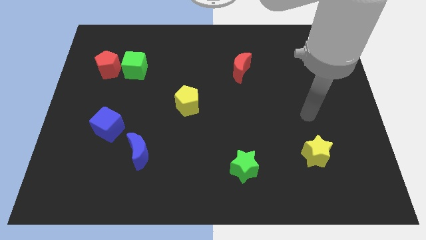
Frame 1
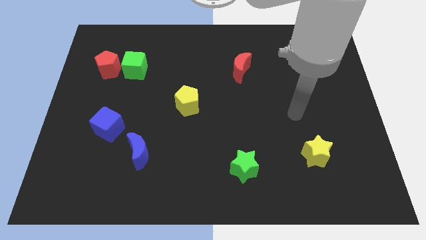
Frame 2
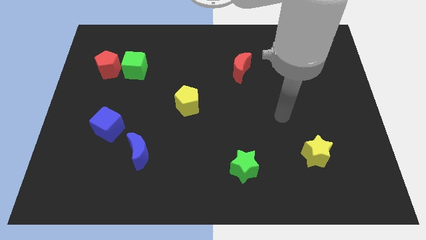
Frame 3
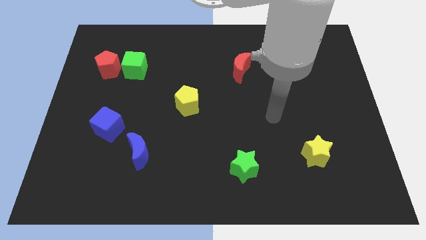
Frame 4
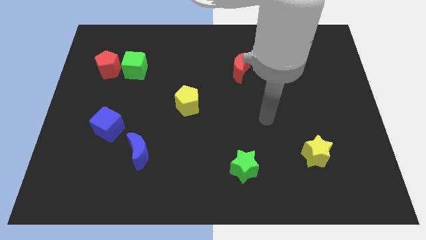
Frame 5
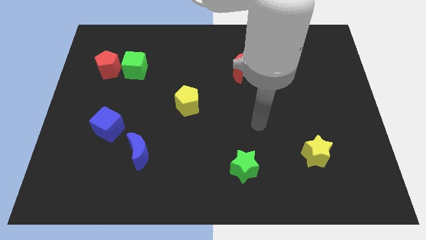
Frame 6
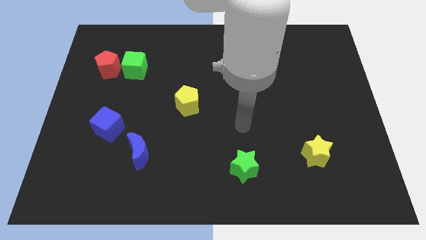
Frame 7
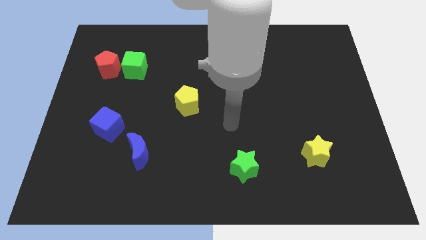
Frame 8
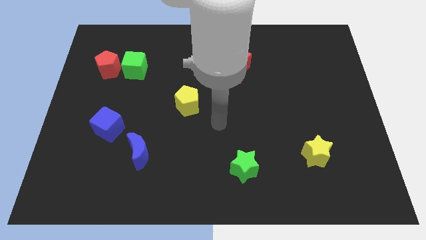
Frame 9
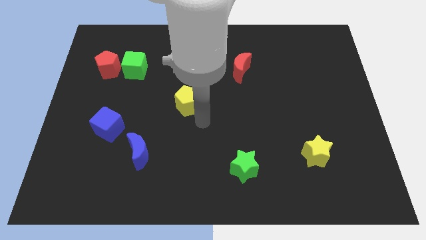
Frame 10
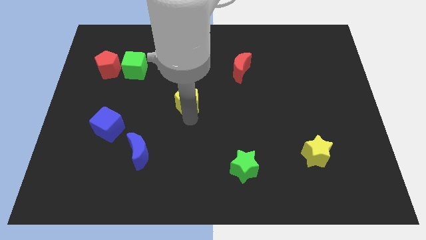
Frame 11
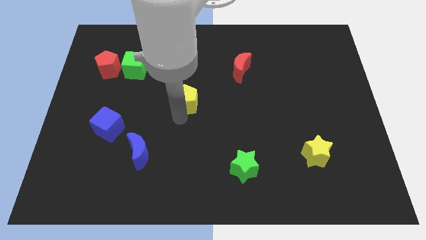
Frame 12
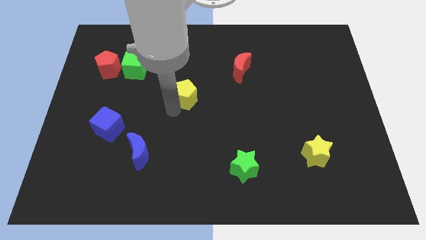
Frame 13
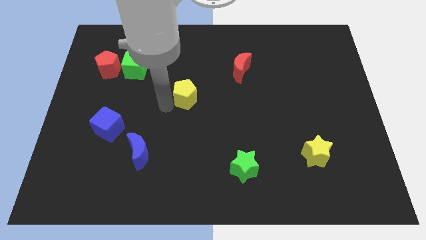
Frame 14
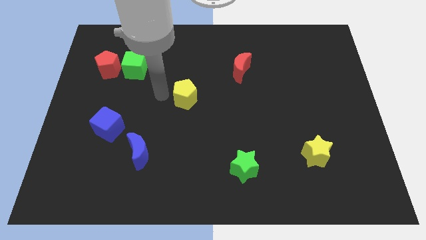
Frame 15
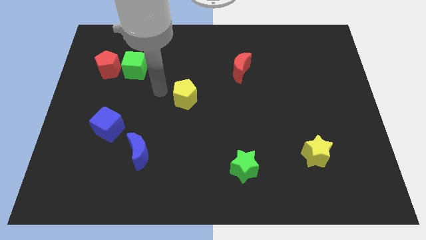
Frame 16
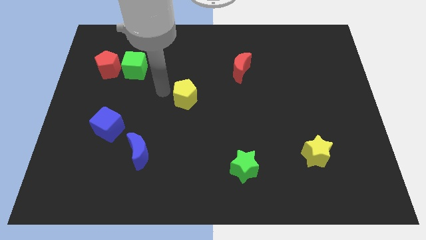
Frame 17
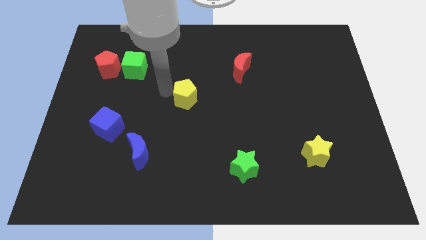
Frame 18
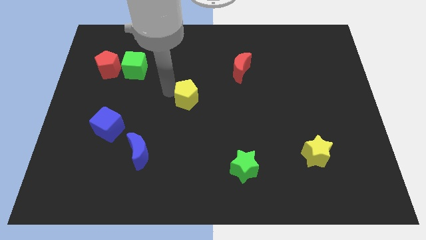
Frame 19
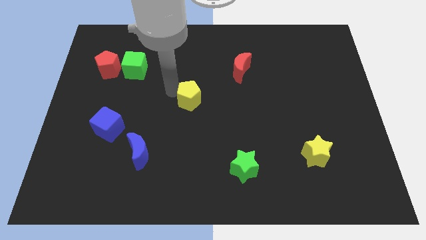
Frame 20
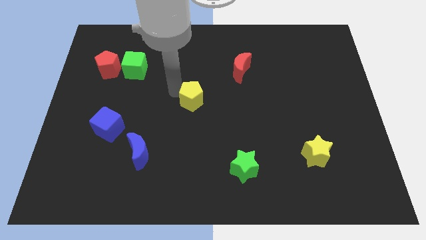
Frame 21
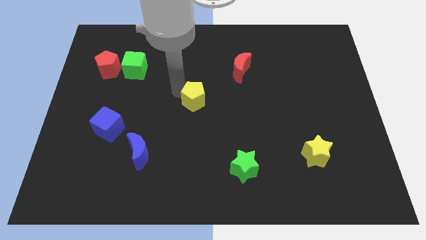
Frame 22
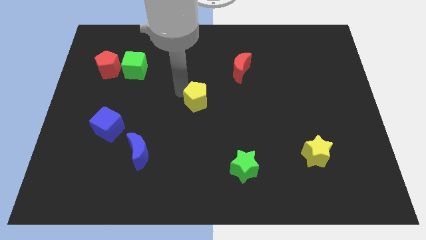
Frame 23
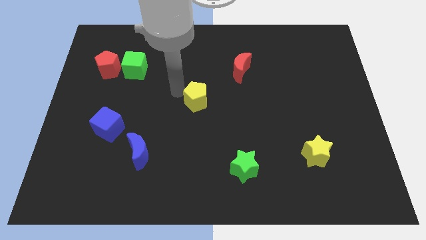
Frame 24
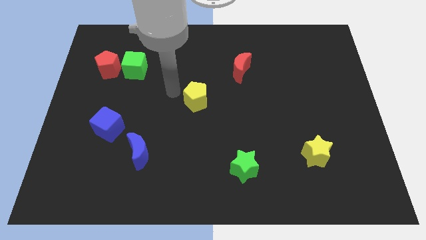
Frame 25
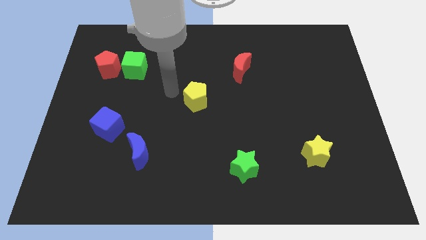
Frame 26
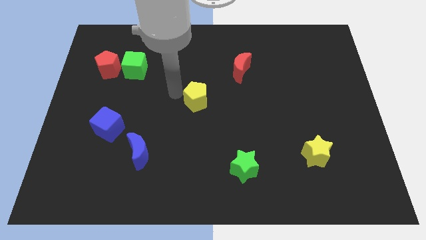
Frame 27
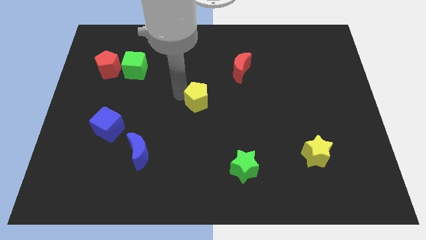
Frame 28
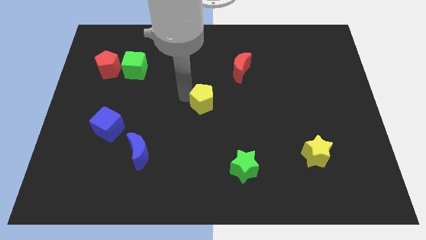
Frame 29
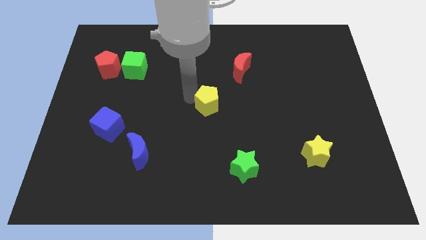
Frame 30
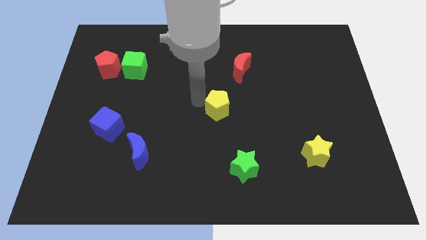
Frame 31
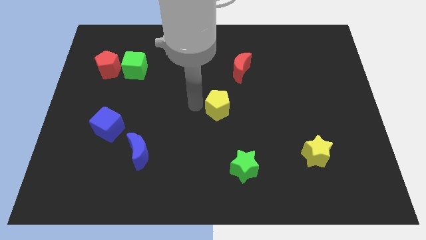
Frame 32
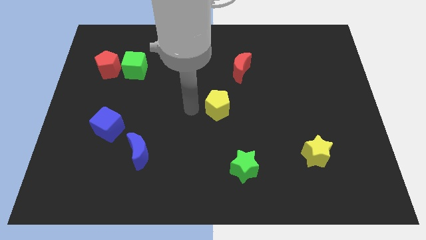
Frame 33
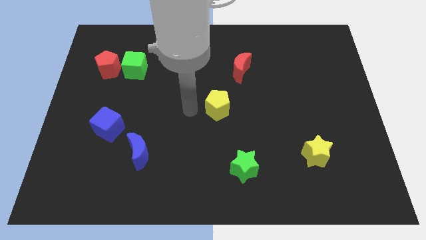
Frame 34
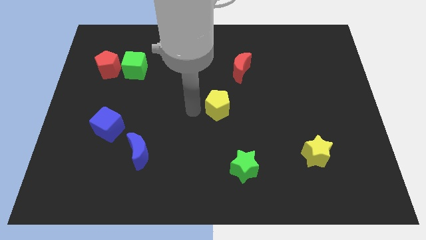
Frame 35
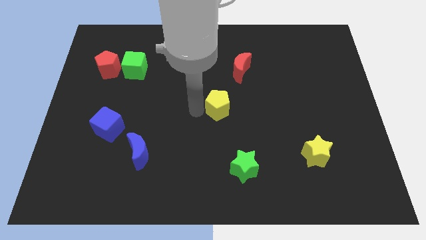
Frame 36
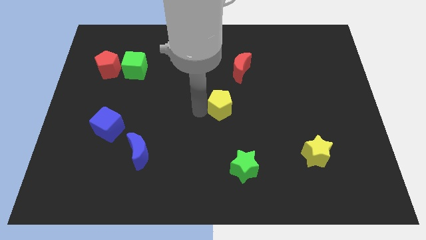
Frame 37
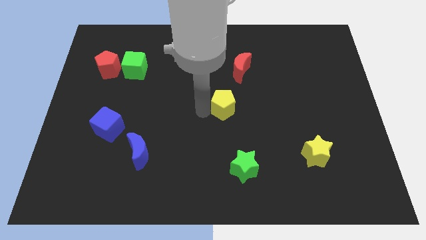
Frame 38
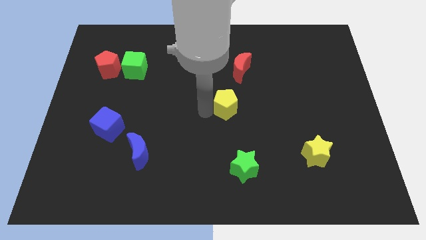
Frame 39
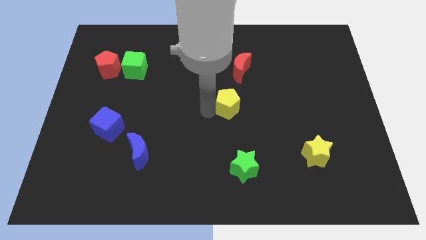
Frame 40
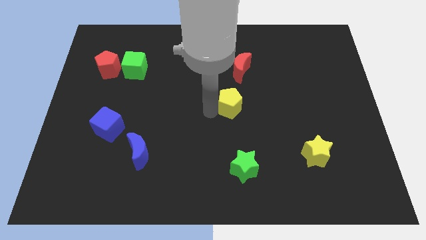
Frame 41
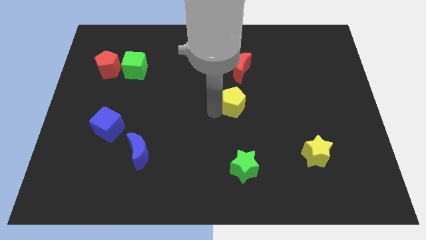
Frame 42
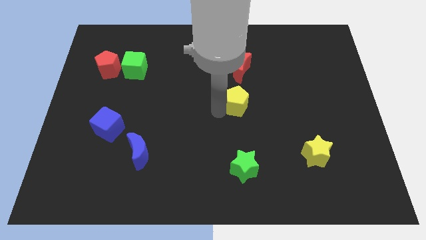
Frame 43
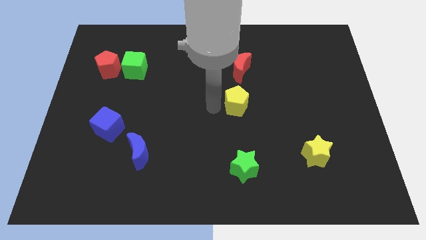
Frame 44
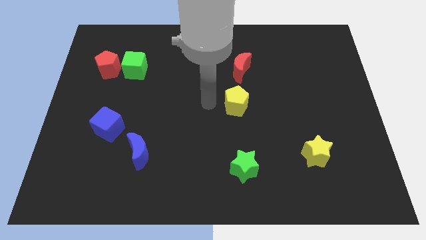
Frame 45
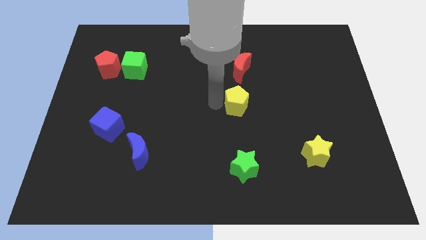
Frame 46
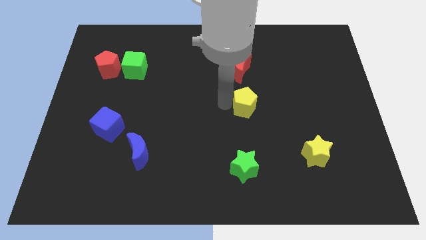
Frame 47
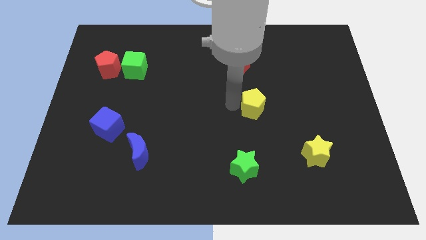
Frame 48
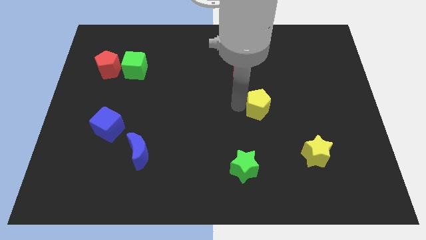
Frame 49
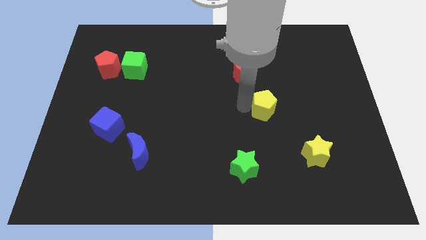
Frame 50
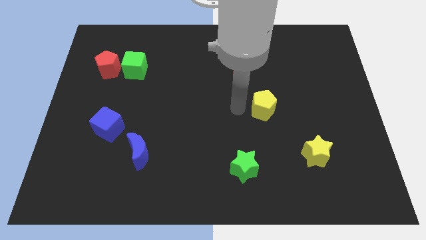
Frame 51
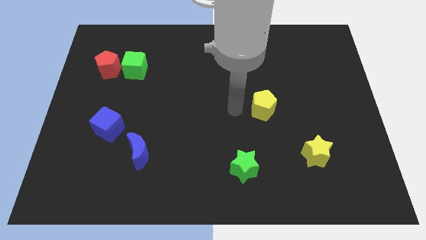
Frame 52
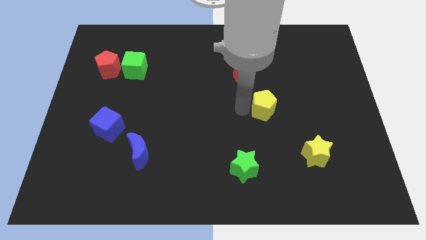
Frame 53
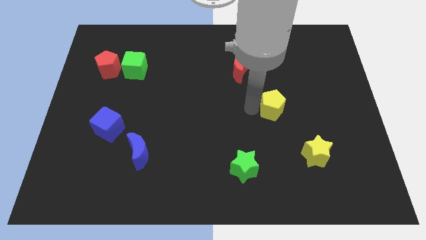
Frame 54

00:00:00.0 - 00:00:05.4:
move the yellow pentagon to the right

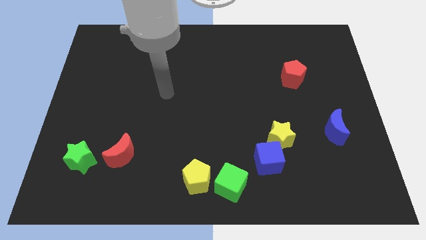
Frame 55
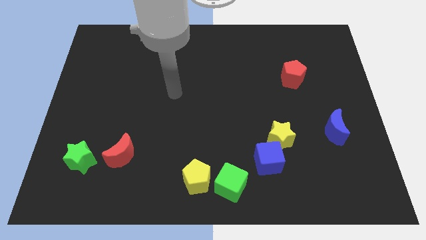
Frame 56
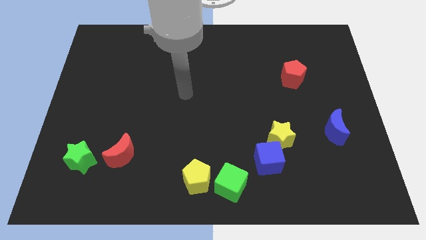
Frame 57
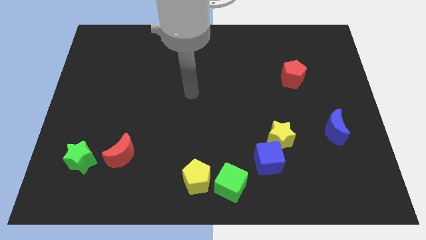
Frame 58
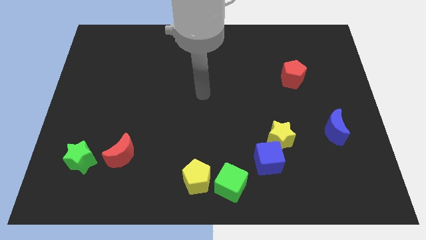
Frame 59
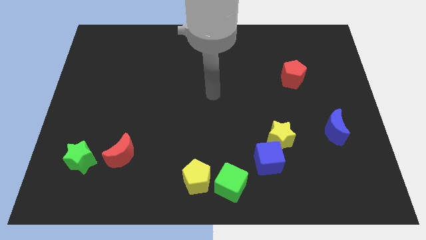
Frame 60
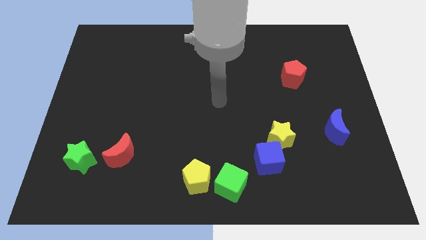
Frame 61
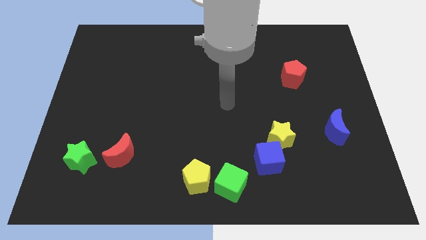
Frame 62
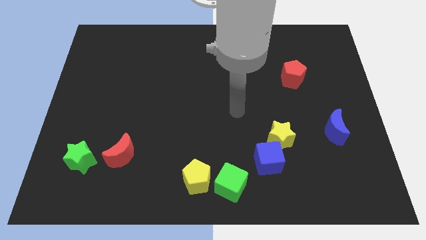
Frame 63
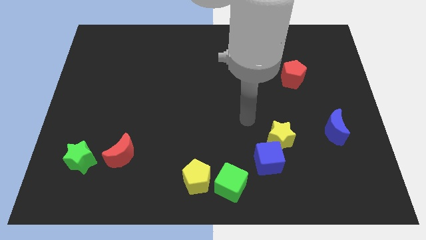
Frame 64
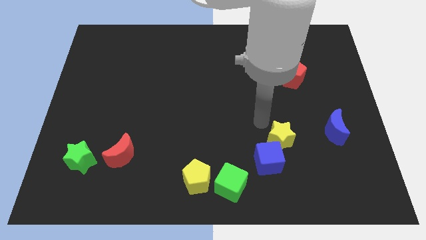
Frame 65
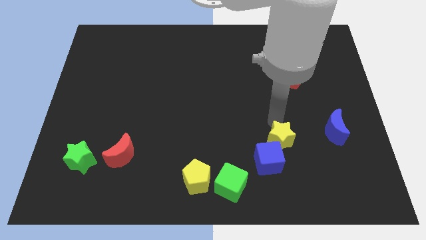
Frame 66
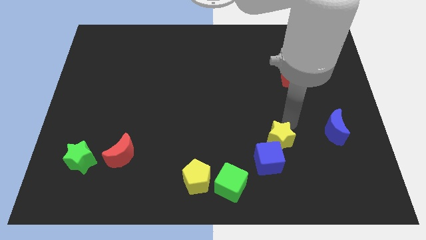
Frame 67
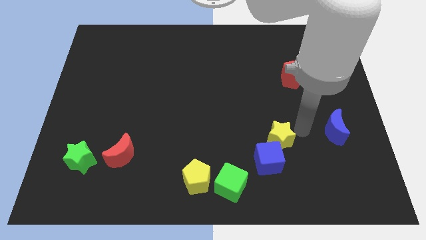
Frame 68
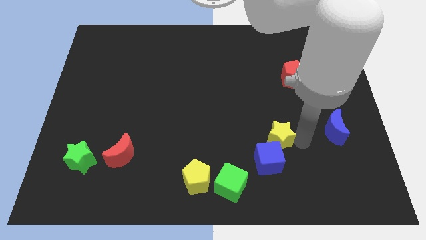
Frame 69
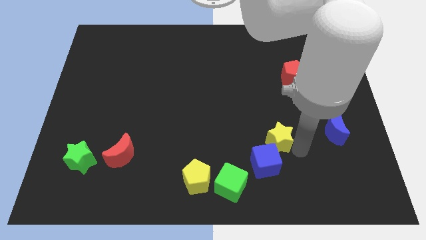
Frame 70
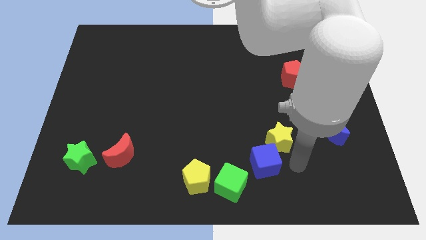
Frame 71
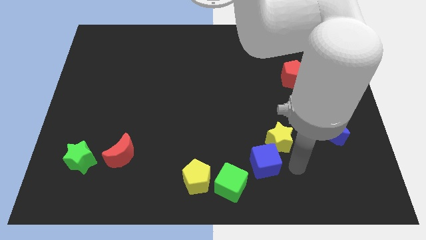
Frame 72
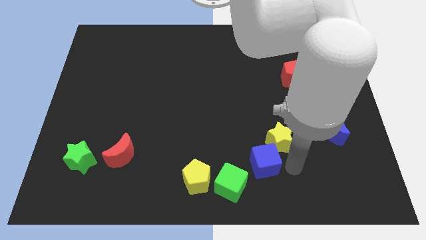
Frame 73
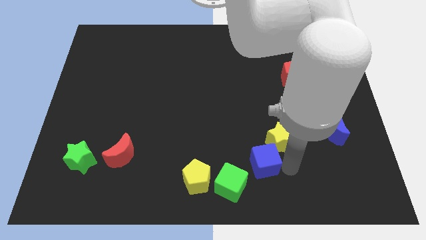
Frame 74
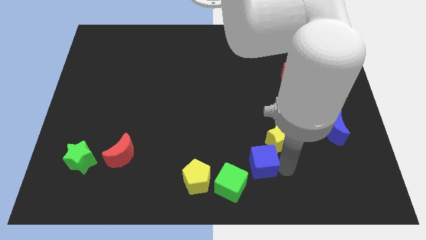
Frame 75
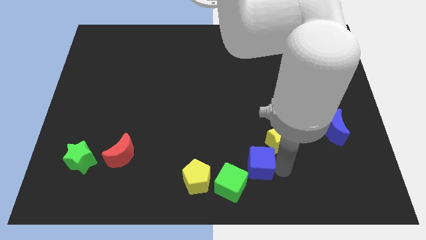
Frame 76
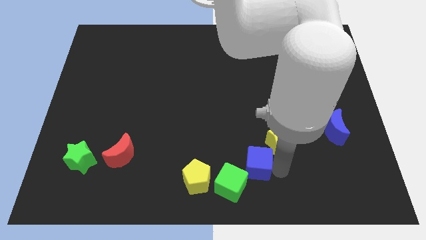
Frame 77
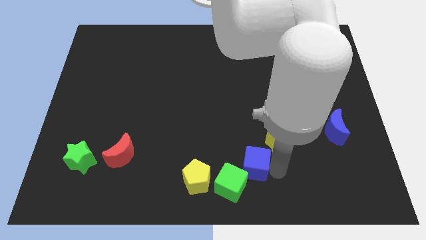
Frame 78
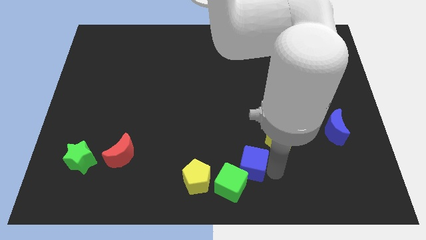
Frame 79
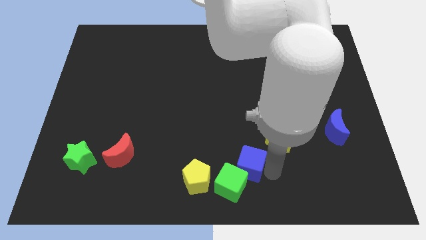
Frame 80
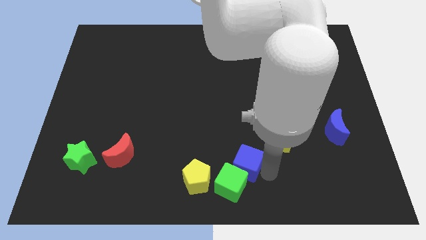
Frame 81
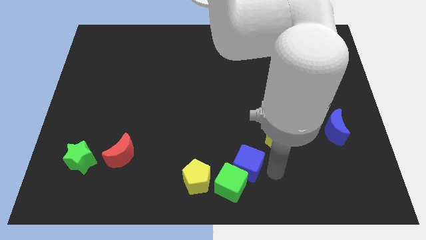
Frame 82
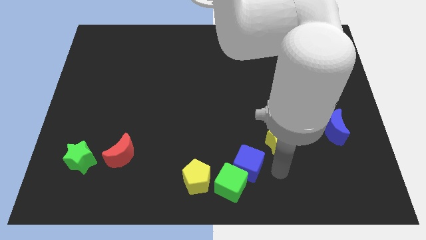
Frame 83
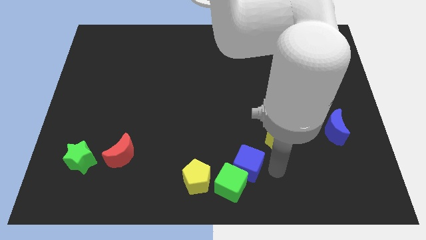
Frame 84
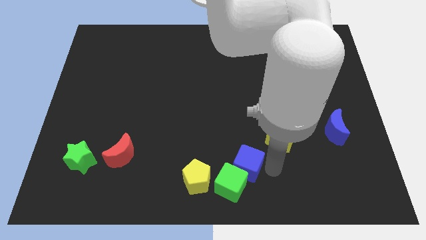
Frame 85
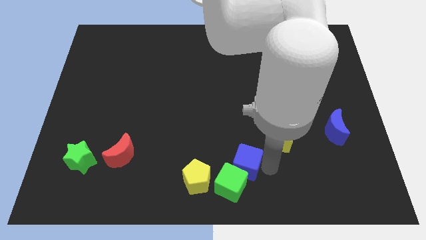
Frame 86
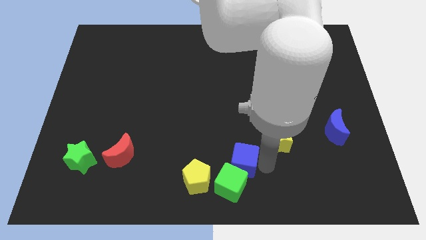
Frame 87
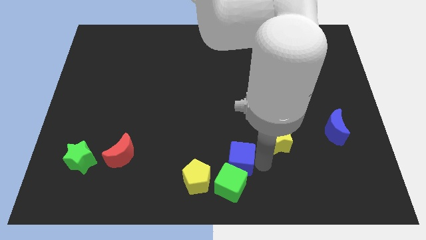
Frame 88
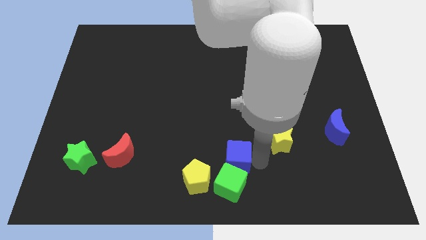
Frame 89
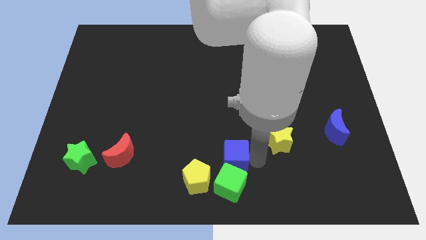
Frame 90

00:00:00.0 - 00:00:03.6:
slide the blue cube left a little bit
